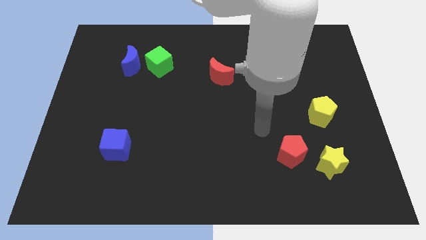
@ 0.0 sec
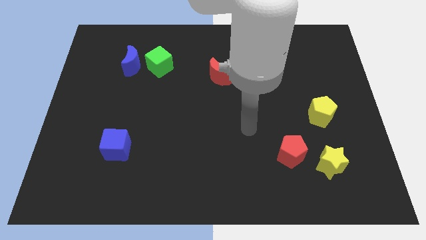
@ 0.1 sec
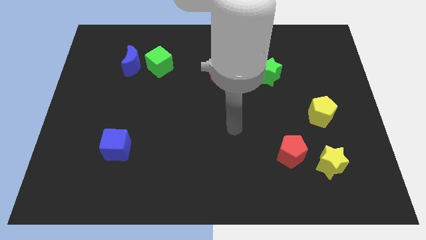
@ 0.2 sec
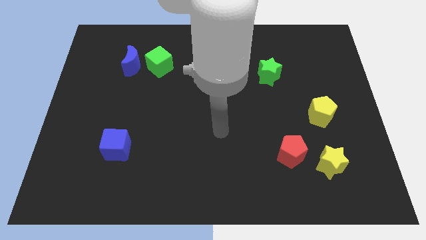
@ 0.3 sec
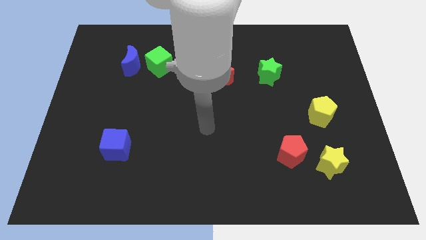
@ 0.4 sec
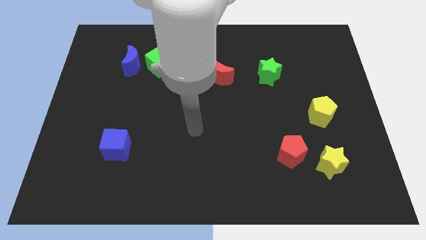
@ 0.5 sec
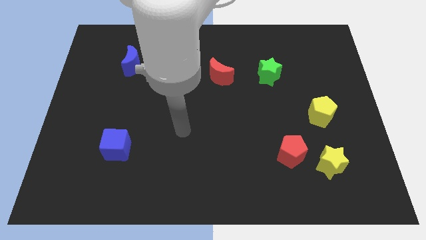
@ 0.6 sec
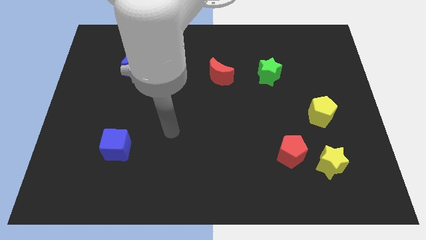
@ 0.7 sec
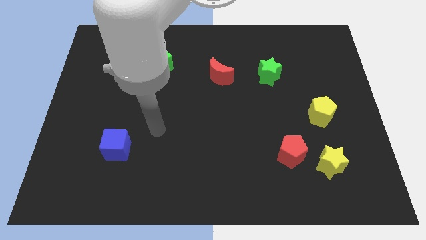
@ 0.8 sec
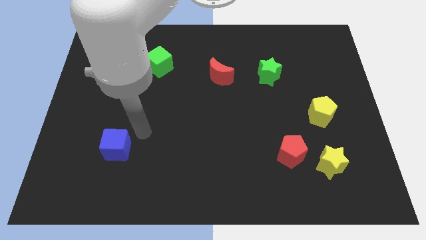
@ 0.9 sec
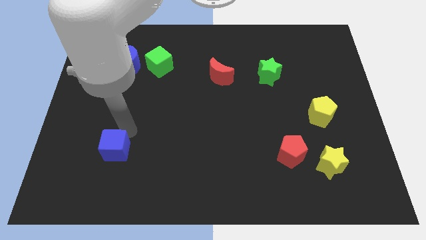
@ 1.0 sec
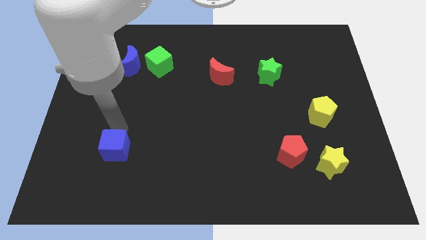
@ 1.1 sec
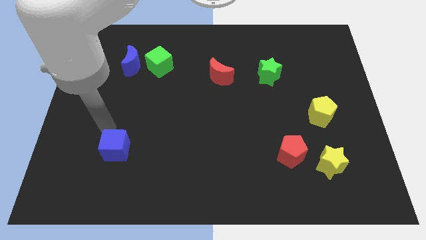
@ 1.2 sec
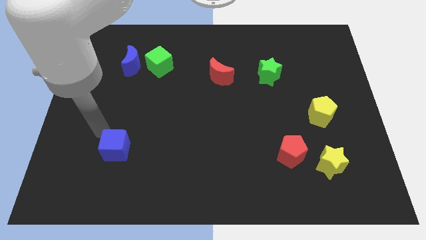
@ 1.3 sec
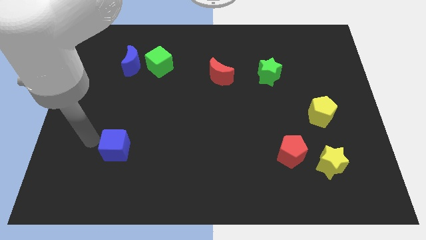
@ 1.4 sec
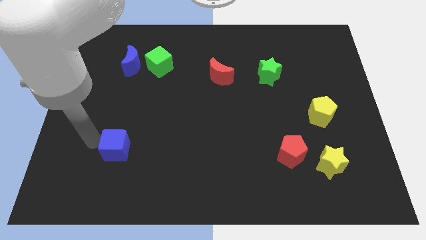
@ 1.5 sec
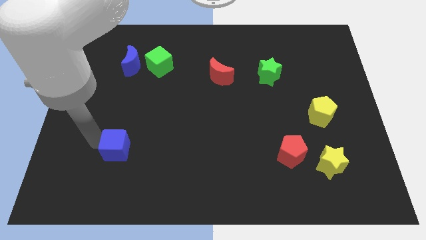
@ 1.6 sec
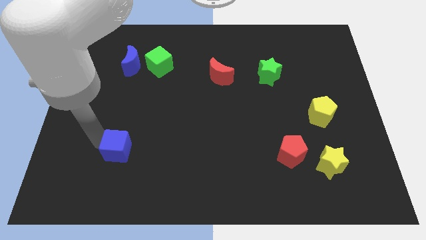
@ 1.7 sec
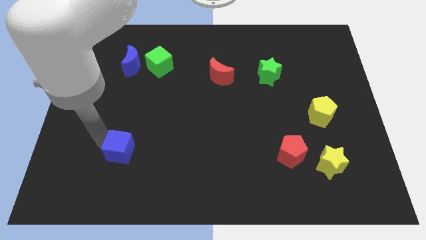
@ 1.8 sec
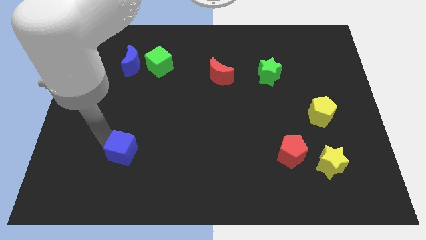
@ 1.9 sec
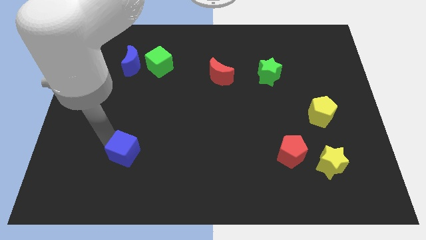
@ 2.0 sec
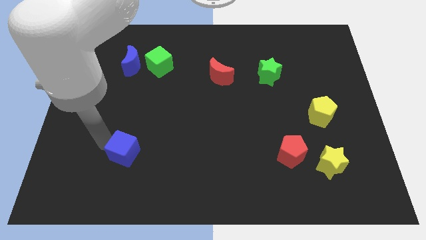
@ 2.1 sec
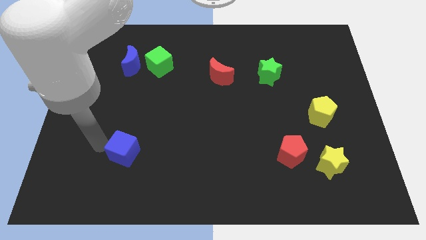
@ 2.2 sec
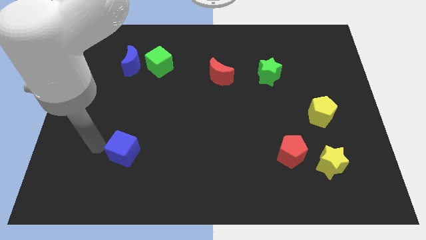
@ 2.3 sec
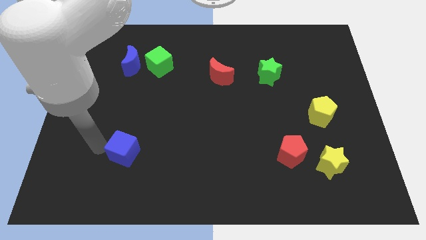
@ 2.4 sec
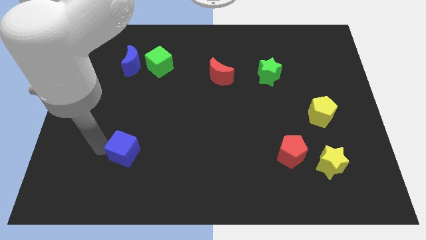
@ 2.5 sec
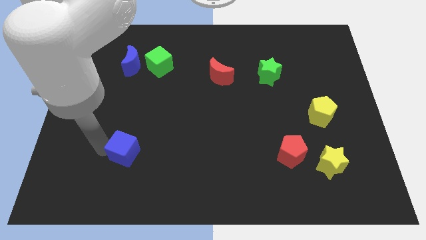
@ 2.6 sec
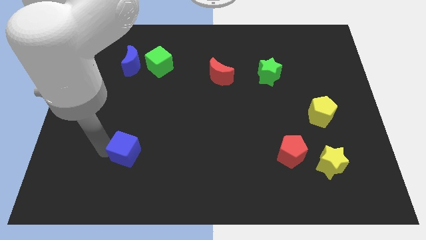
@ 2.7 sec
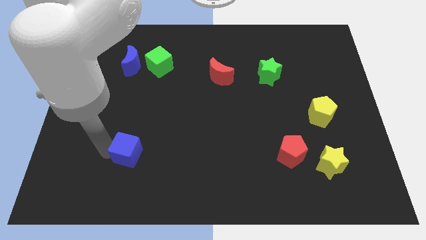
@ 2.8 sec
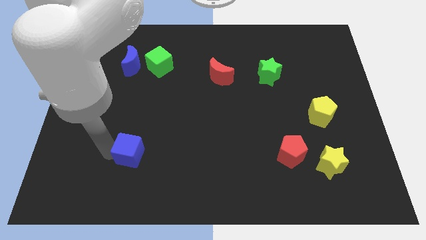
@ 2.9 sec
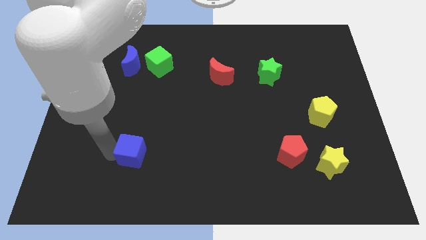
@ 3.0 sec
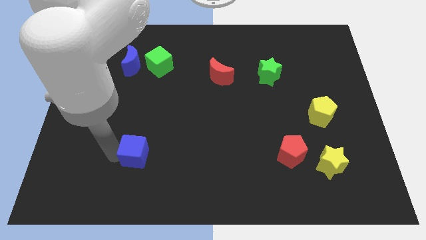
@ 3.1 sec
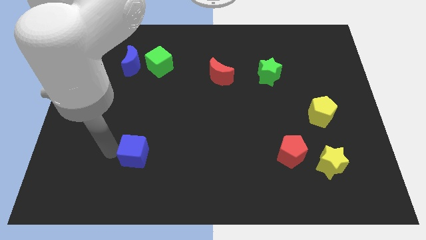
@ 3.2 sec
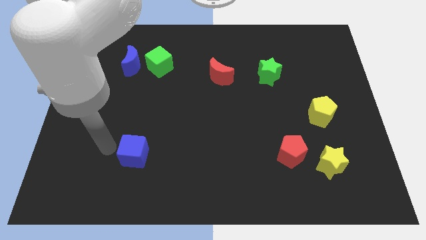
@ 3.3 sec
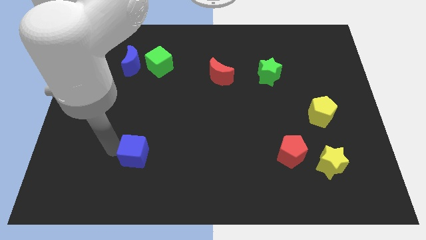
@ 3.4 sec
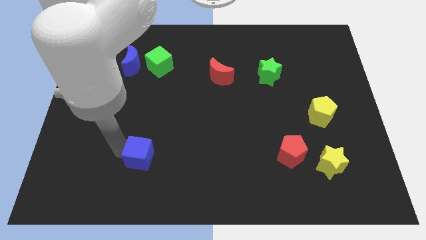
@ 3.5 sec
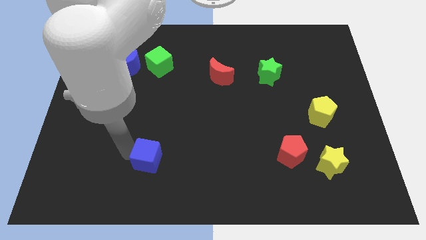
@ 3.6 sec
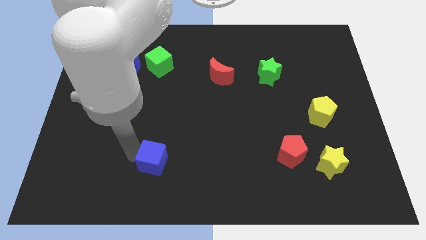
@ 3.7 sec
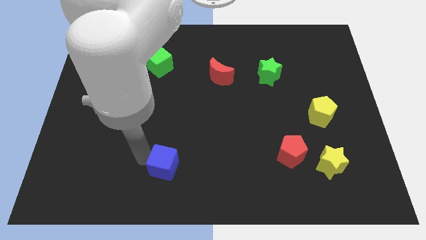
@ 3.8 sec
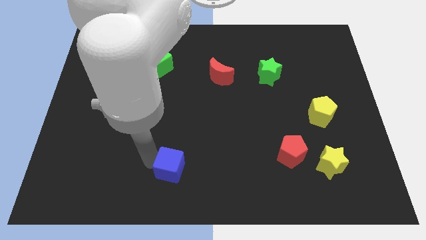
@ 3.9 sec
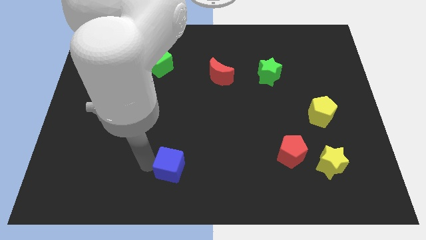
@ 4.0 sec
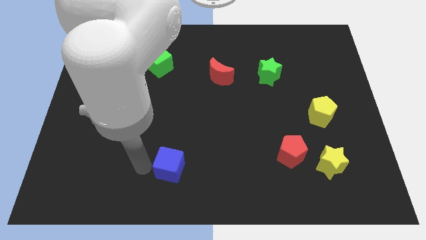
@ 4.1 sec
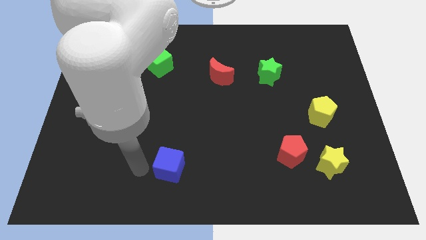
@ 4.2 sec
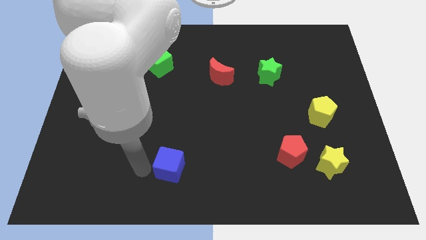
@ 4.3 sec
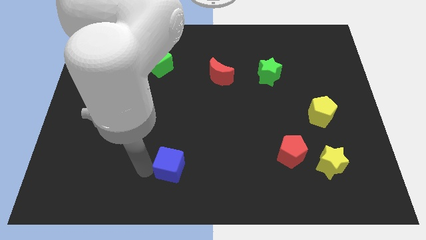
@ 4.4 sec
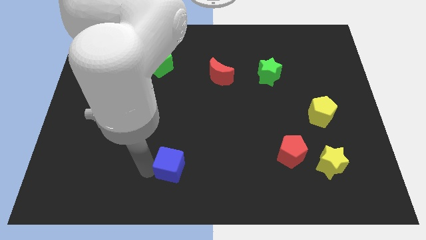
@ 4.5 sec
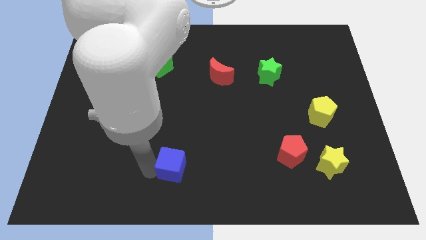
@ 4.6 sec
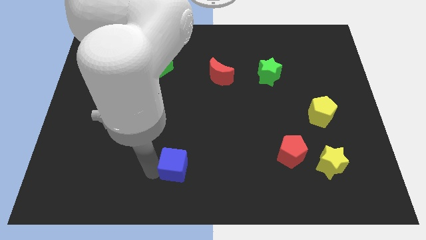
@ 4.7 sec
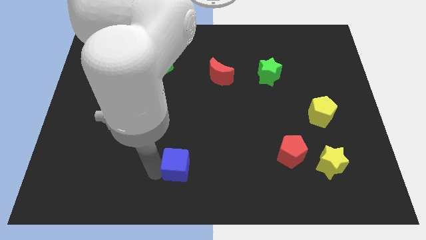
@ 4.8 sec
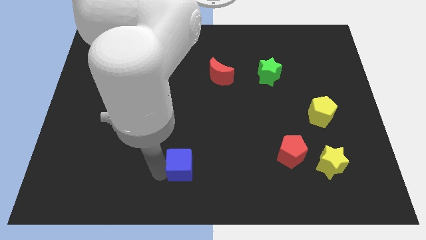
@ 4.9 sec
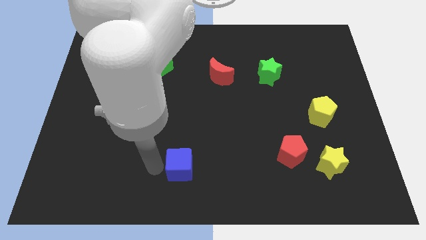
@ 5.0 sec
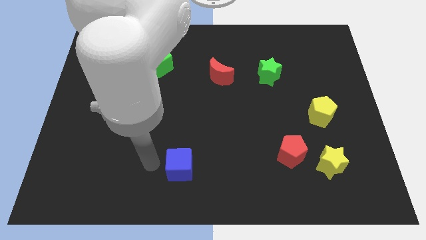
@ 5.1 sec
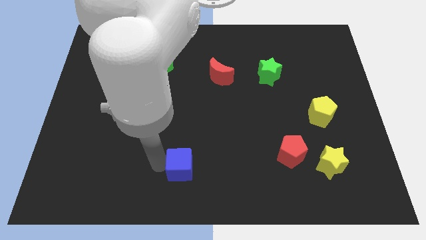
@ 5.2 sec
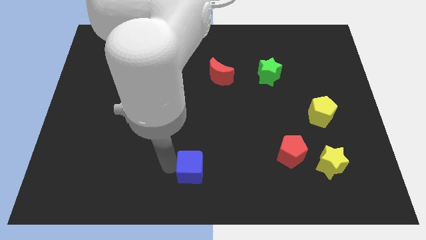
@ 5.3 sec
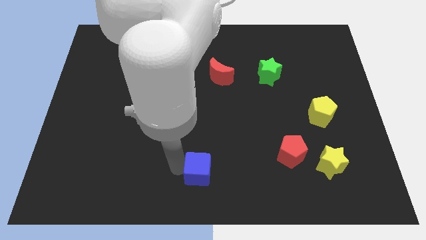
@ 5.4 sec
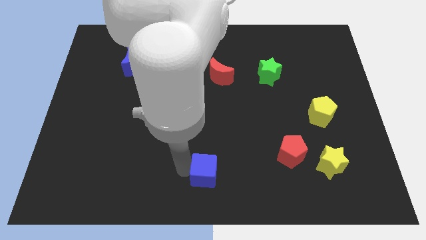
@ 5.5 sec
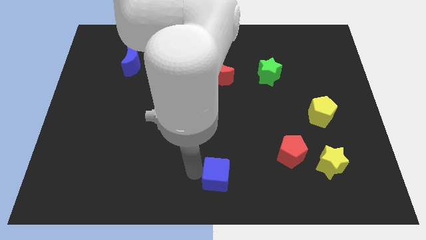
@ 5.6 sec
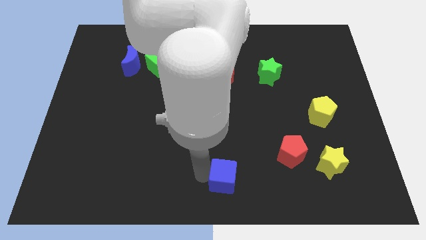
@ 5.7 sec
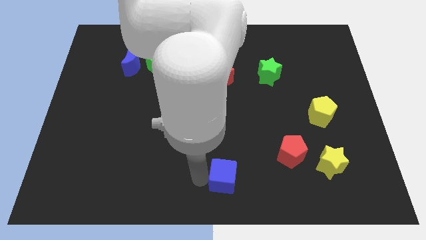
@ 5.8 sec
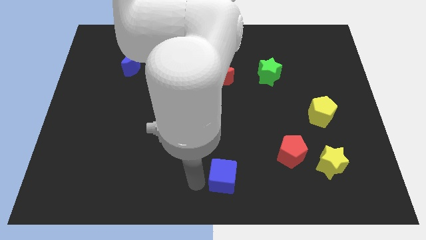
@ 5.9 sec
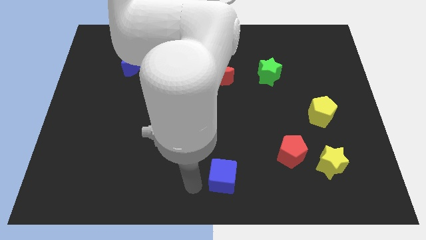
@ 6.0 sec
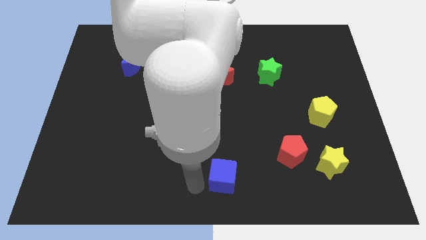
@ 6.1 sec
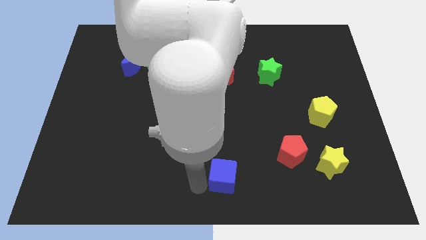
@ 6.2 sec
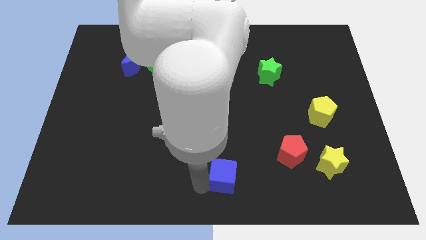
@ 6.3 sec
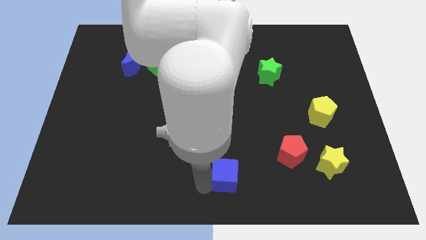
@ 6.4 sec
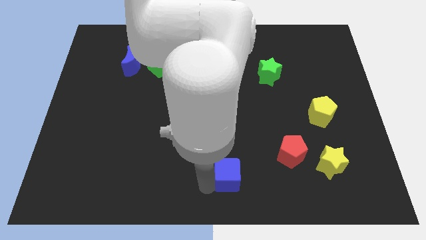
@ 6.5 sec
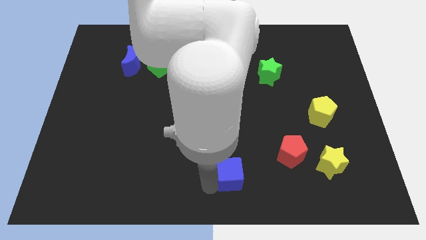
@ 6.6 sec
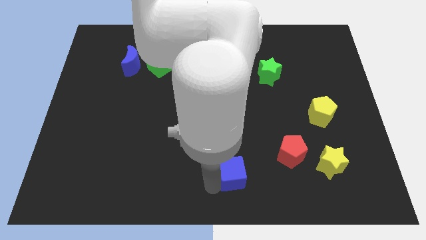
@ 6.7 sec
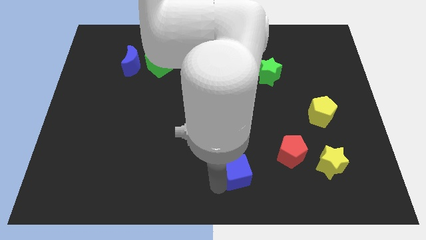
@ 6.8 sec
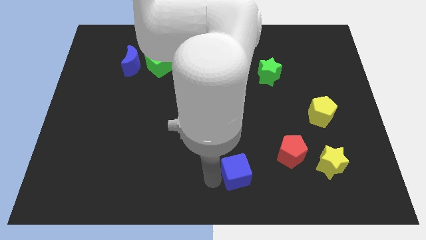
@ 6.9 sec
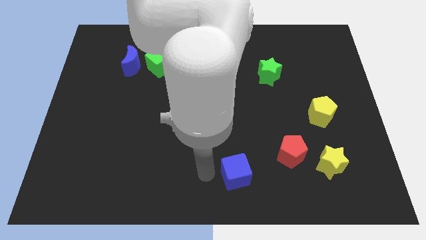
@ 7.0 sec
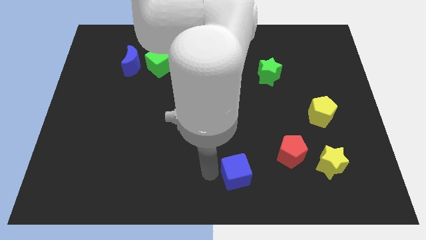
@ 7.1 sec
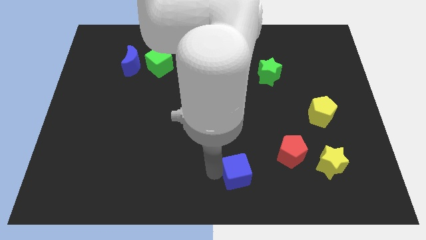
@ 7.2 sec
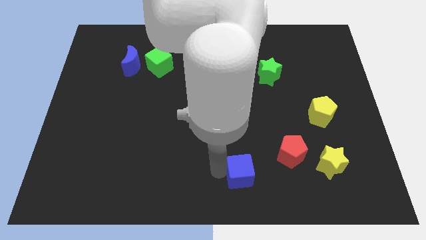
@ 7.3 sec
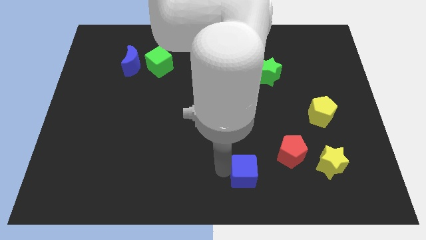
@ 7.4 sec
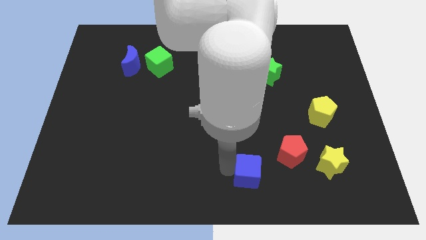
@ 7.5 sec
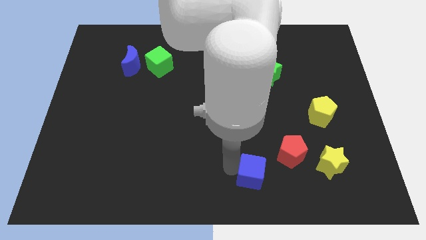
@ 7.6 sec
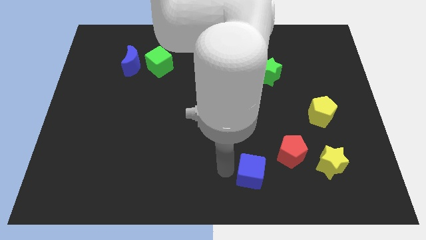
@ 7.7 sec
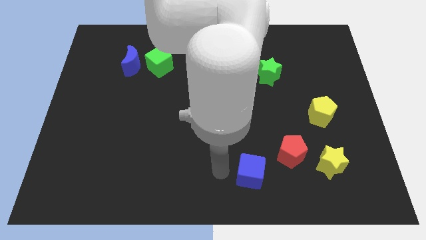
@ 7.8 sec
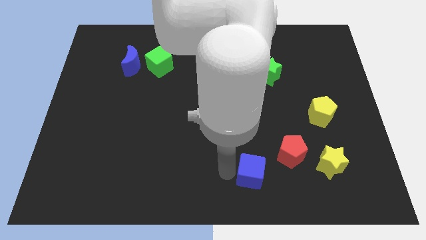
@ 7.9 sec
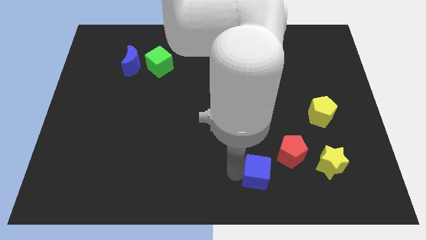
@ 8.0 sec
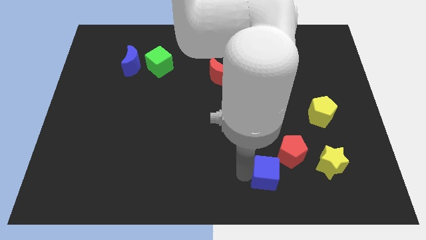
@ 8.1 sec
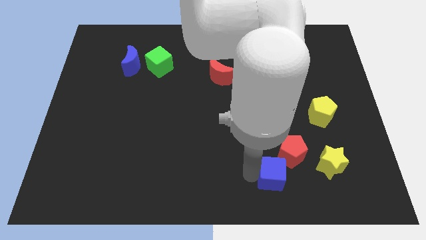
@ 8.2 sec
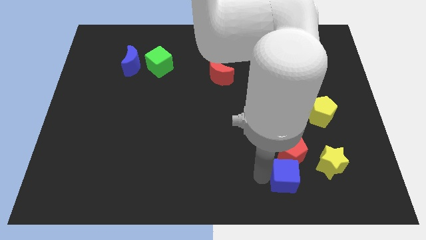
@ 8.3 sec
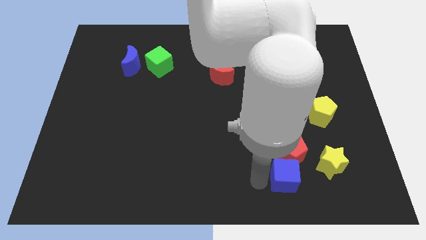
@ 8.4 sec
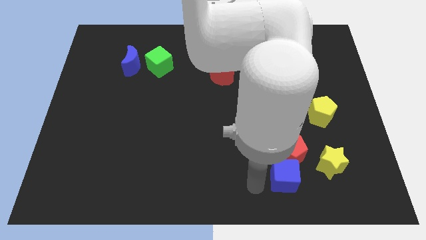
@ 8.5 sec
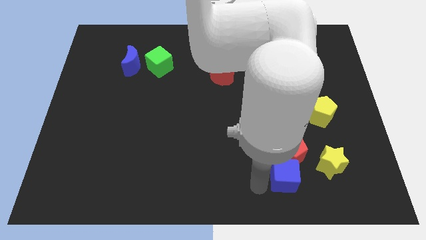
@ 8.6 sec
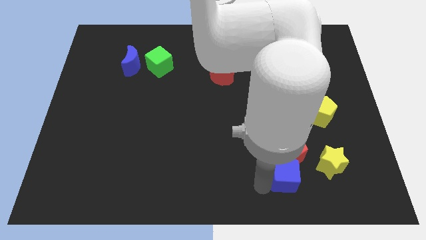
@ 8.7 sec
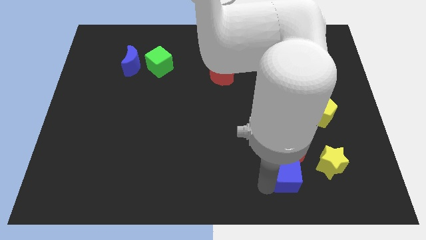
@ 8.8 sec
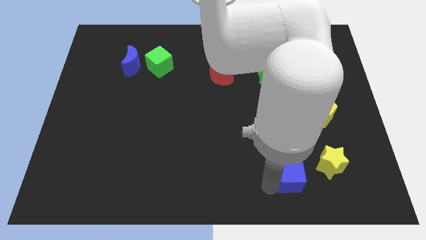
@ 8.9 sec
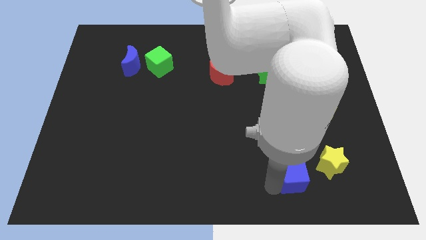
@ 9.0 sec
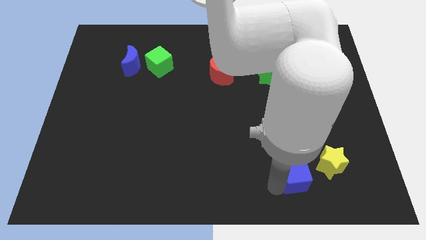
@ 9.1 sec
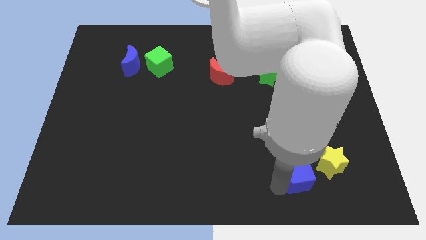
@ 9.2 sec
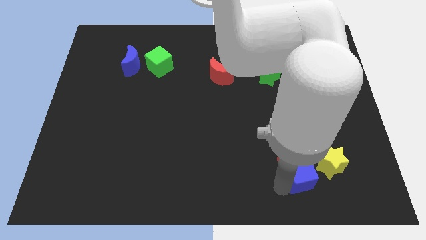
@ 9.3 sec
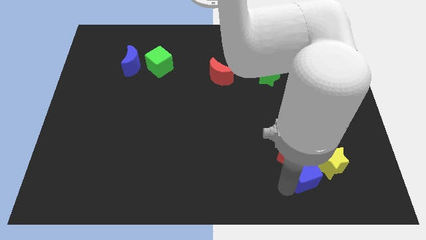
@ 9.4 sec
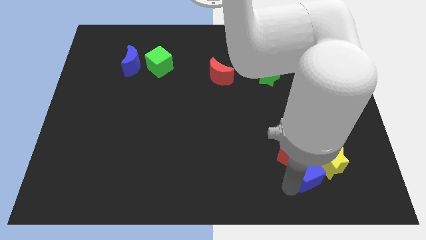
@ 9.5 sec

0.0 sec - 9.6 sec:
slide the blue cube close to the yellow star
